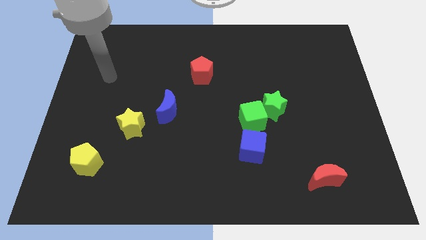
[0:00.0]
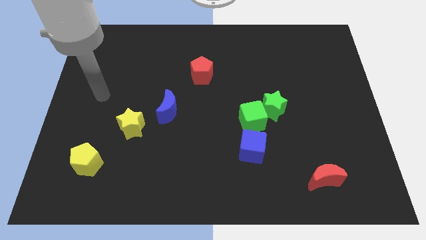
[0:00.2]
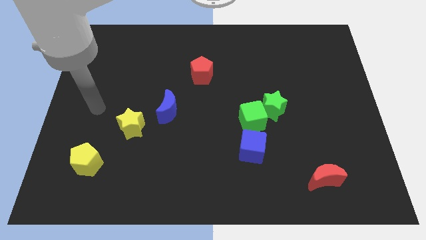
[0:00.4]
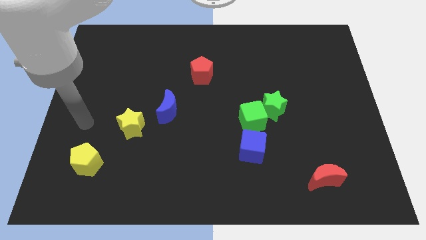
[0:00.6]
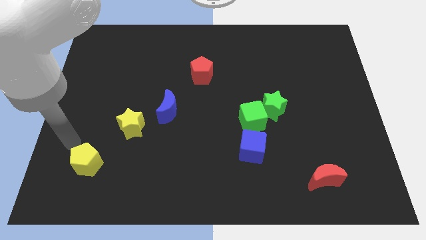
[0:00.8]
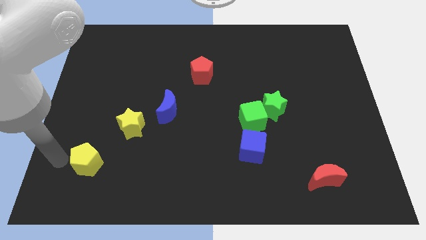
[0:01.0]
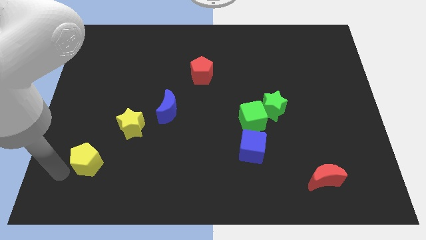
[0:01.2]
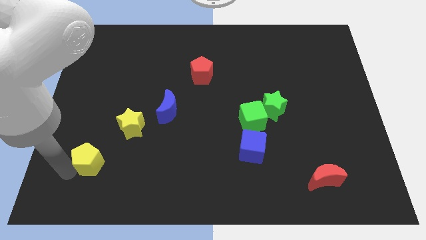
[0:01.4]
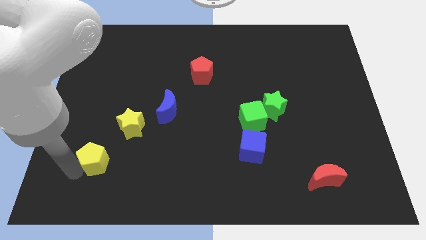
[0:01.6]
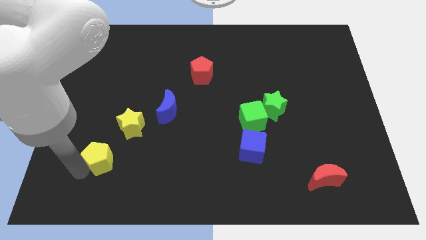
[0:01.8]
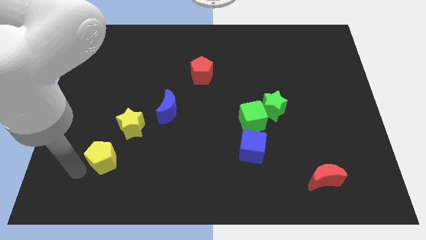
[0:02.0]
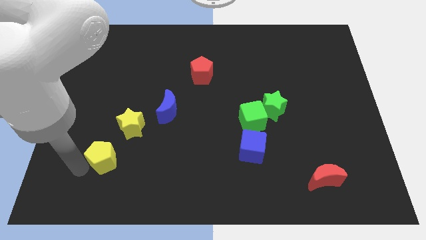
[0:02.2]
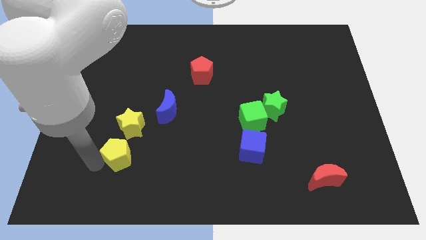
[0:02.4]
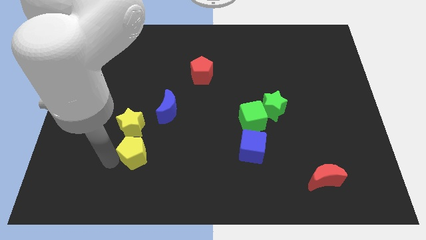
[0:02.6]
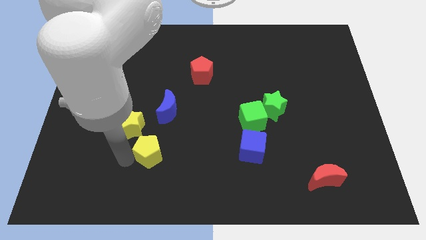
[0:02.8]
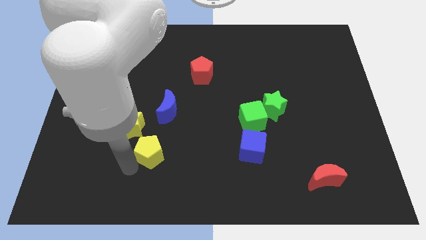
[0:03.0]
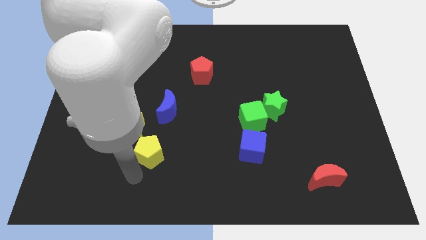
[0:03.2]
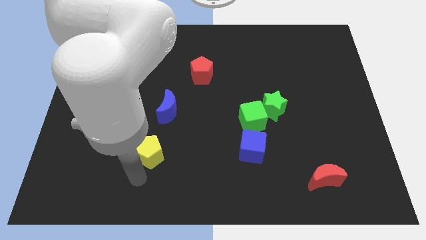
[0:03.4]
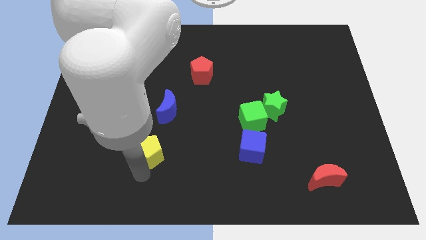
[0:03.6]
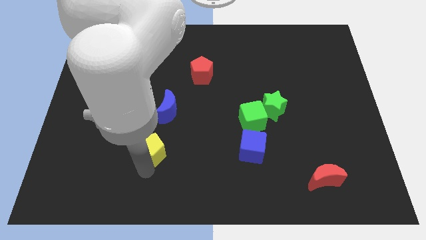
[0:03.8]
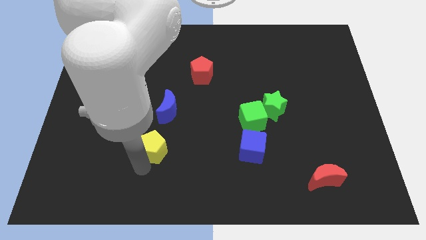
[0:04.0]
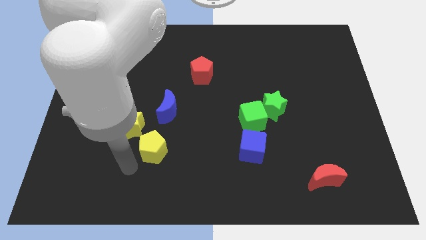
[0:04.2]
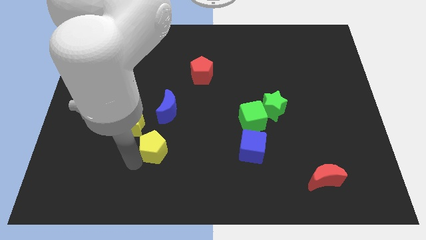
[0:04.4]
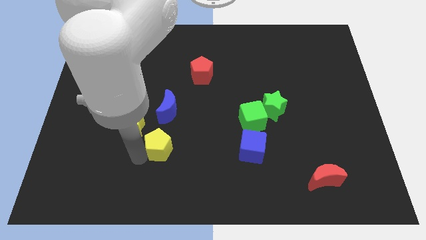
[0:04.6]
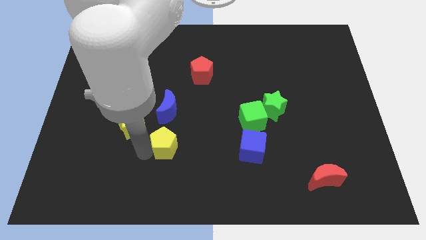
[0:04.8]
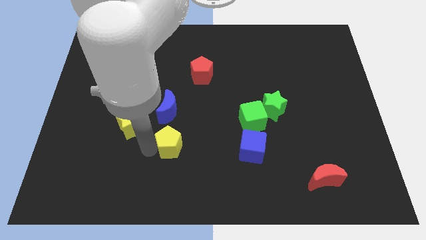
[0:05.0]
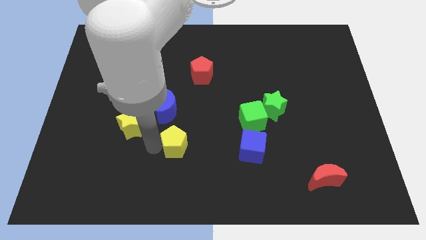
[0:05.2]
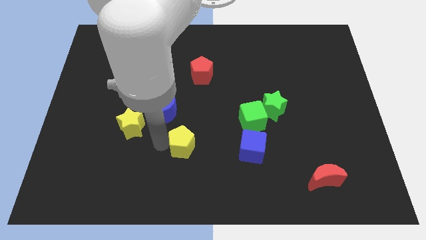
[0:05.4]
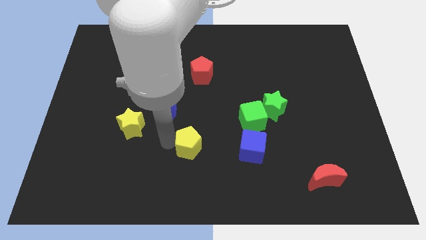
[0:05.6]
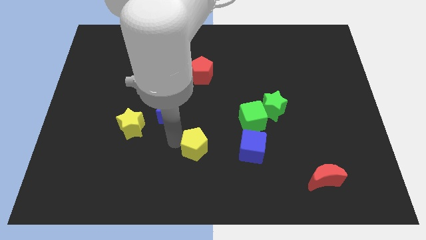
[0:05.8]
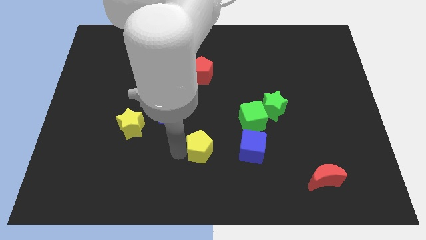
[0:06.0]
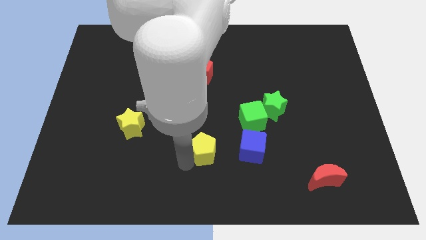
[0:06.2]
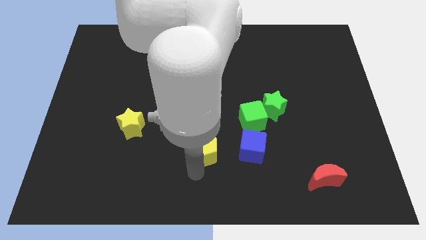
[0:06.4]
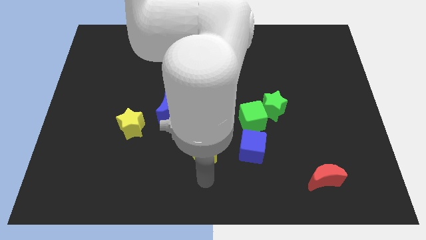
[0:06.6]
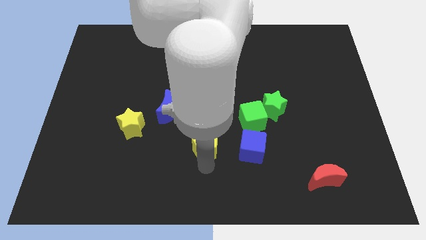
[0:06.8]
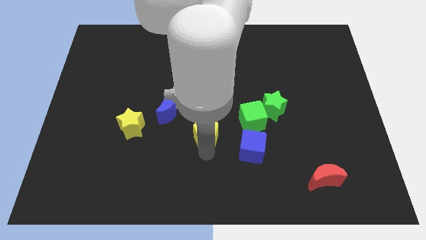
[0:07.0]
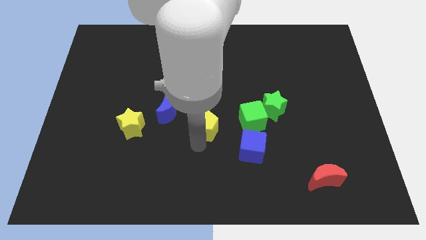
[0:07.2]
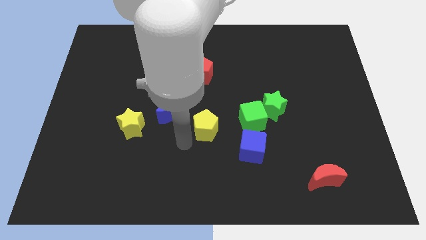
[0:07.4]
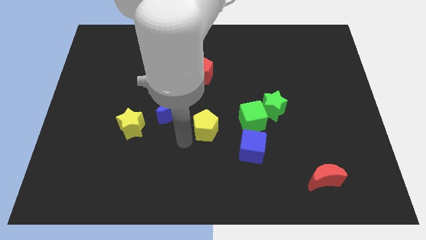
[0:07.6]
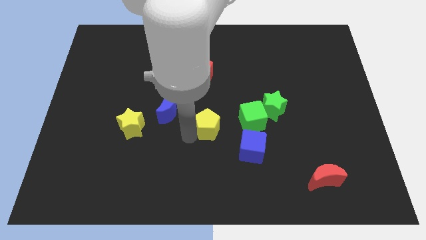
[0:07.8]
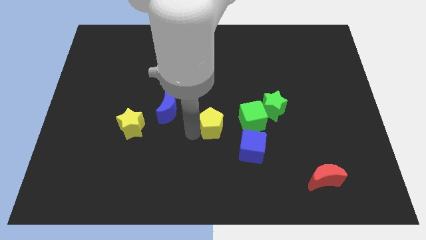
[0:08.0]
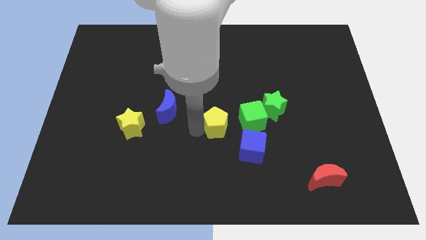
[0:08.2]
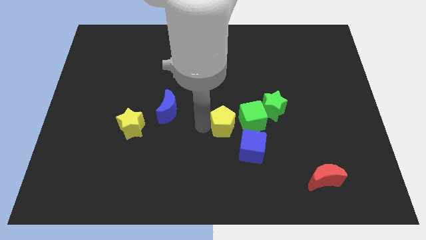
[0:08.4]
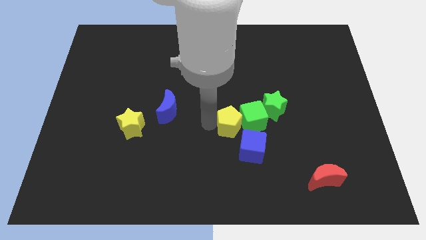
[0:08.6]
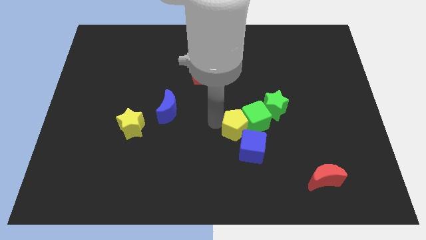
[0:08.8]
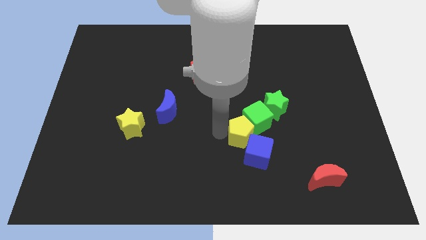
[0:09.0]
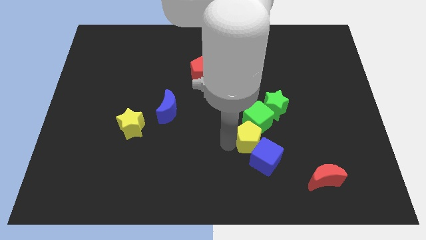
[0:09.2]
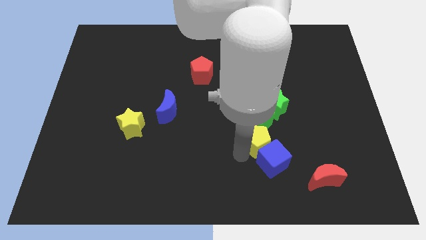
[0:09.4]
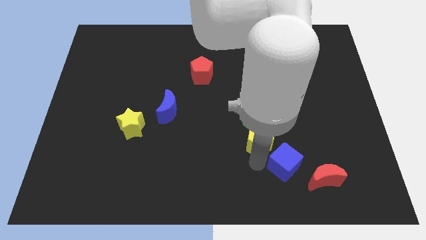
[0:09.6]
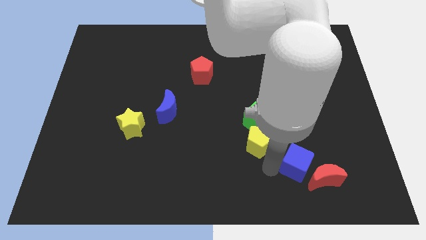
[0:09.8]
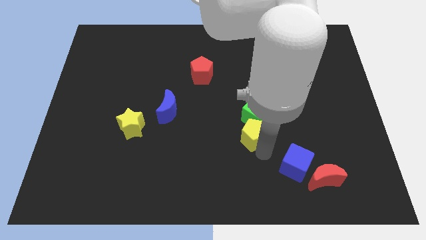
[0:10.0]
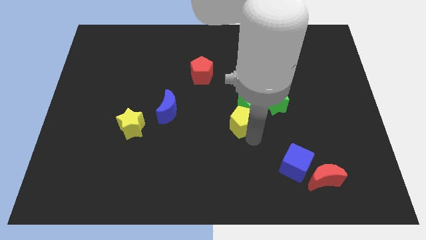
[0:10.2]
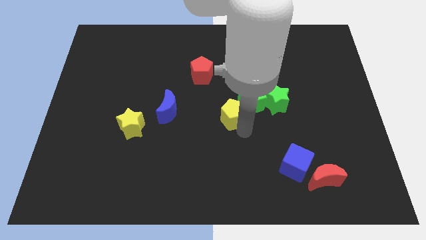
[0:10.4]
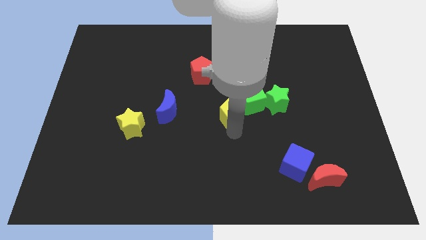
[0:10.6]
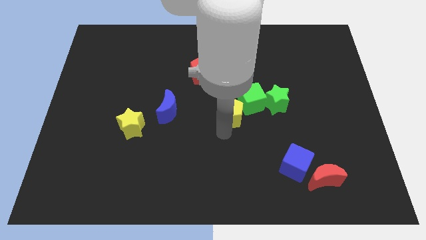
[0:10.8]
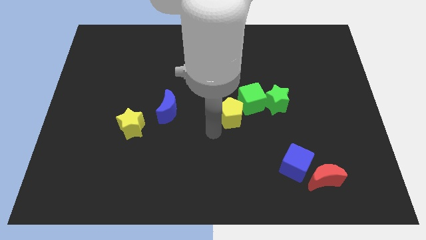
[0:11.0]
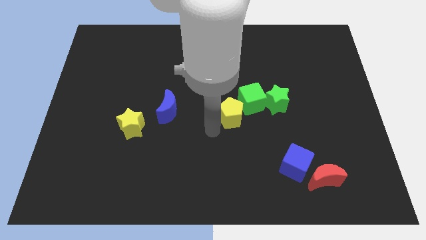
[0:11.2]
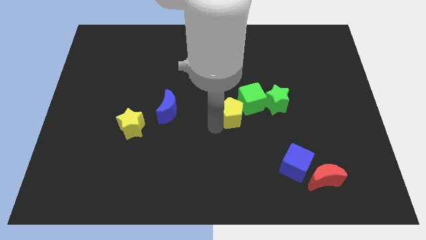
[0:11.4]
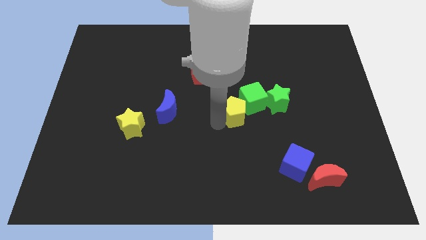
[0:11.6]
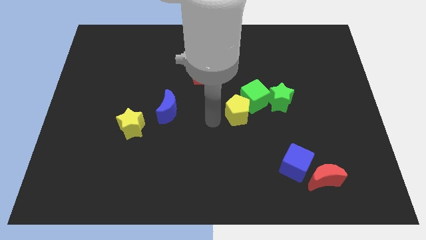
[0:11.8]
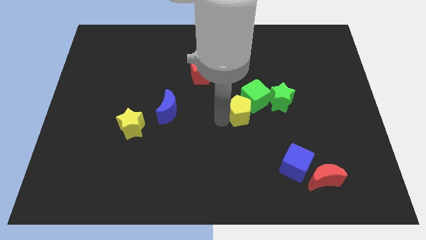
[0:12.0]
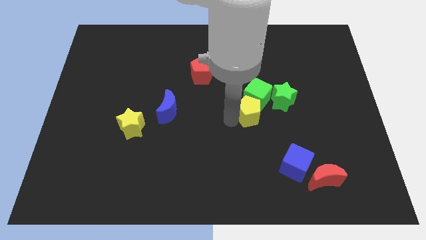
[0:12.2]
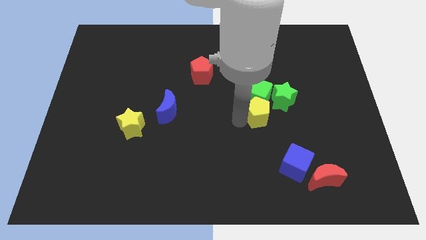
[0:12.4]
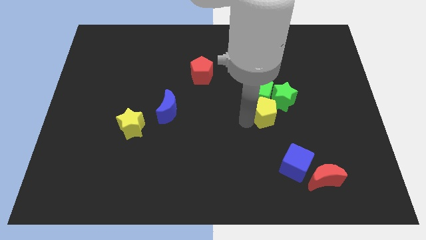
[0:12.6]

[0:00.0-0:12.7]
move the yellow pentagon next to the green star

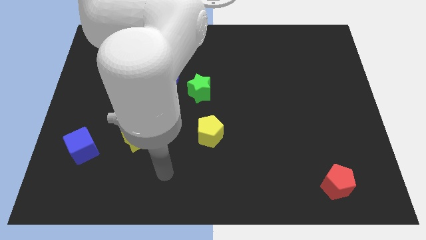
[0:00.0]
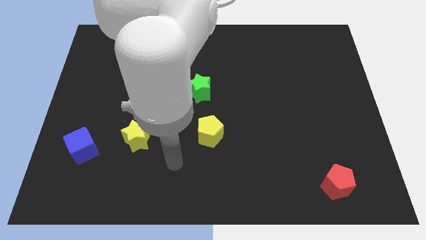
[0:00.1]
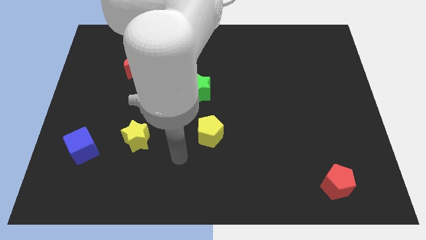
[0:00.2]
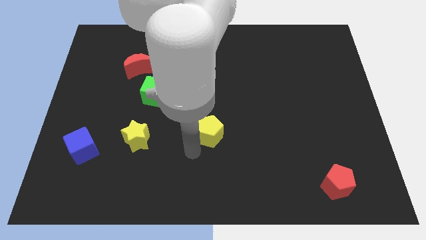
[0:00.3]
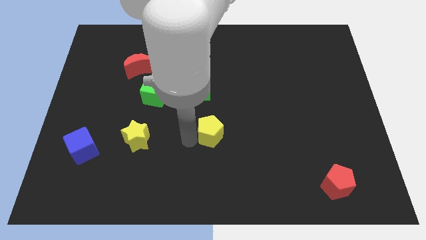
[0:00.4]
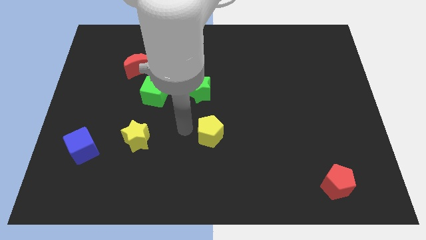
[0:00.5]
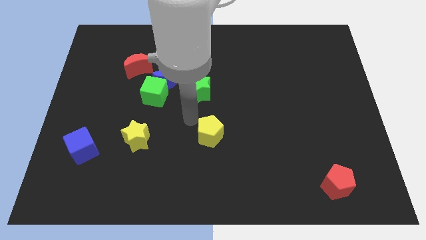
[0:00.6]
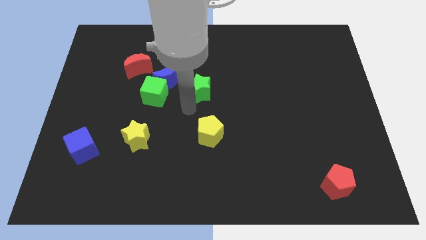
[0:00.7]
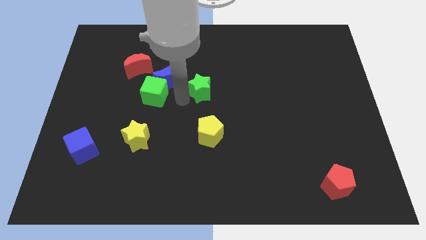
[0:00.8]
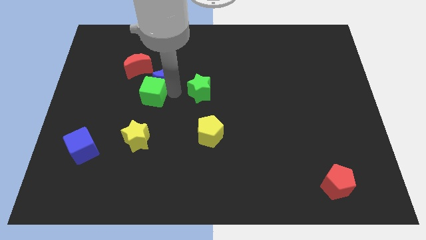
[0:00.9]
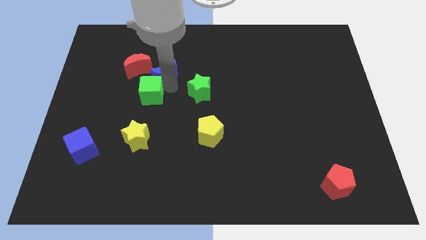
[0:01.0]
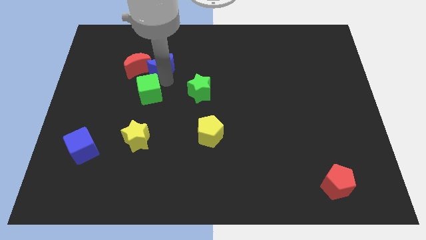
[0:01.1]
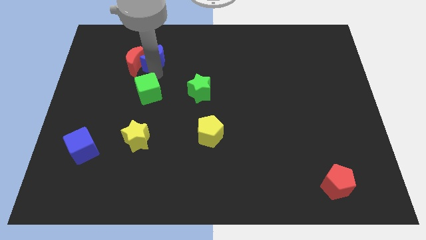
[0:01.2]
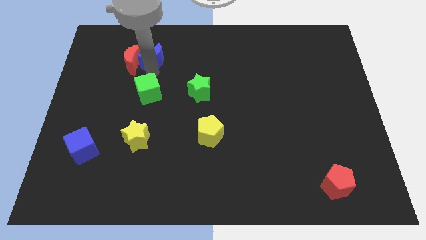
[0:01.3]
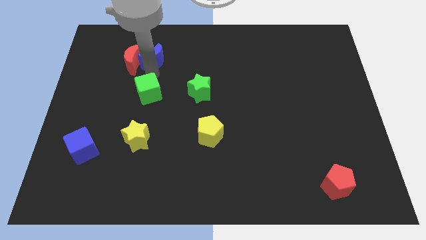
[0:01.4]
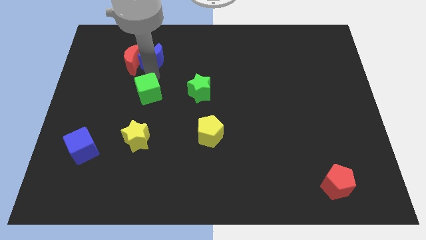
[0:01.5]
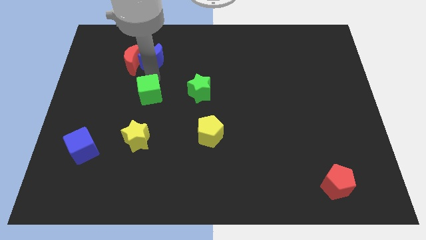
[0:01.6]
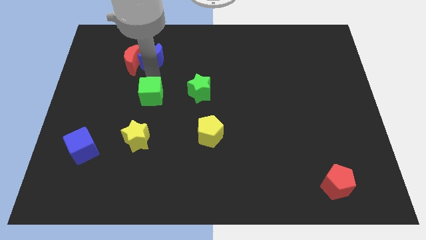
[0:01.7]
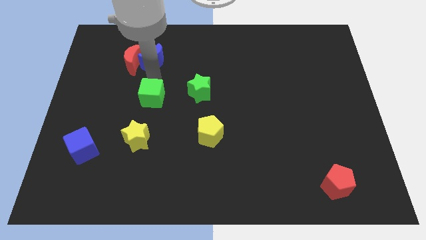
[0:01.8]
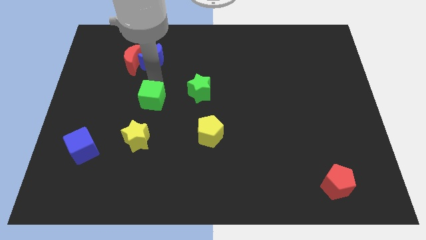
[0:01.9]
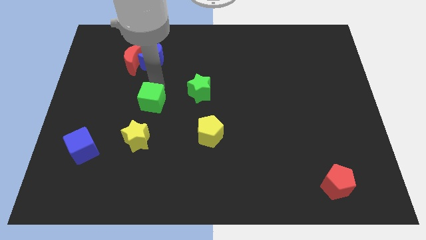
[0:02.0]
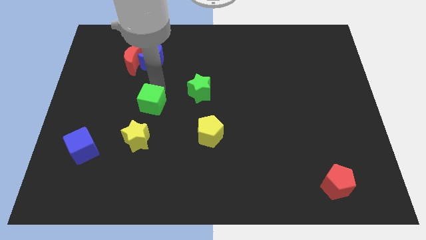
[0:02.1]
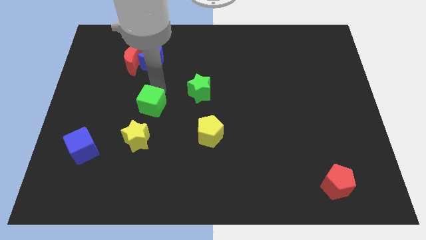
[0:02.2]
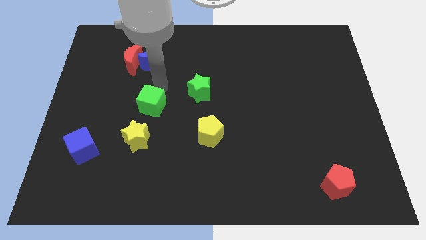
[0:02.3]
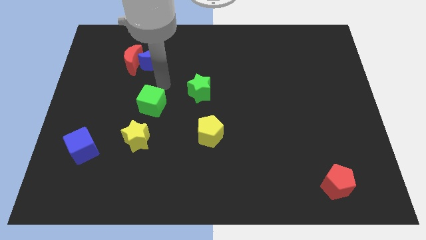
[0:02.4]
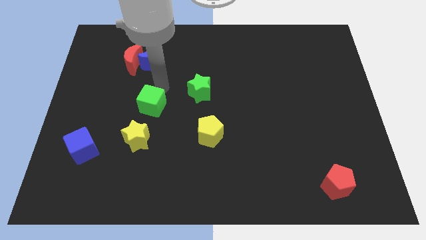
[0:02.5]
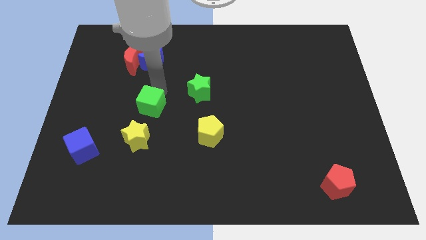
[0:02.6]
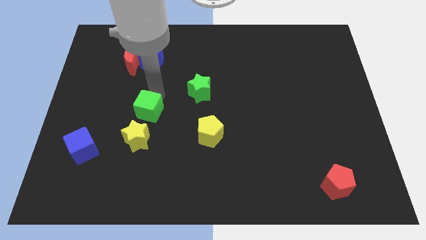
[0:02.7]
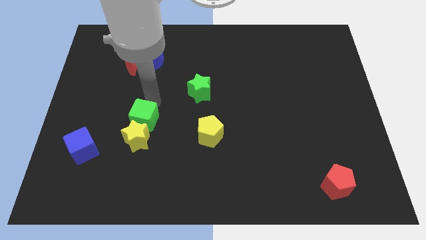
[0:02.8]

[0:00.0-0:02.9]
move the green cube to the yellow star
